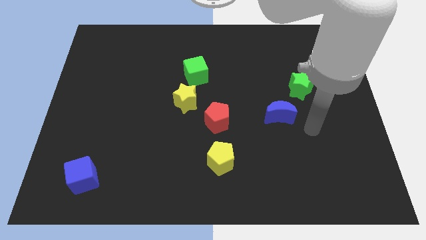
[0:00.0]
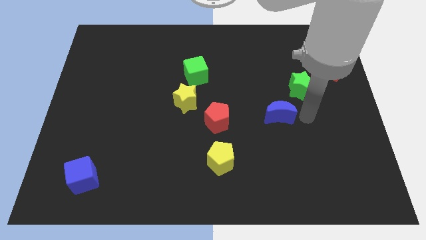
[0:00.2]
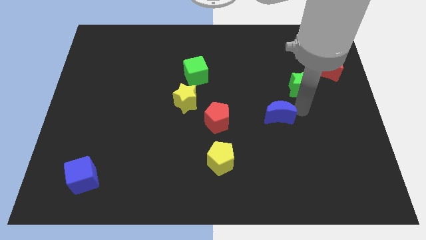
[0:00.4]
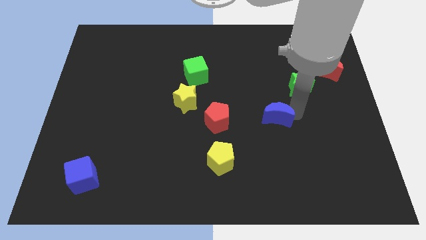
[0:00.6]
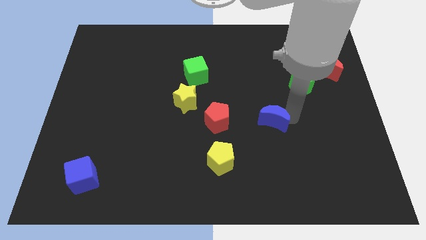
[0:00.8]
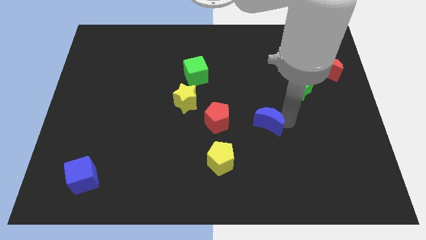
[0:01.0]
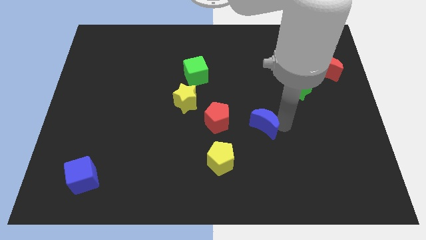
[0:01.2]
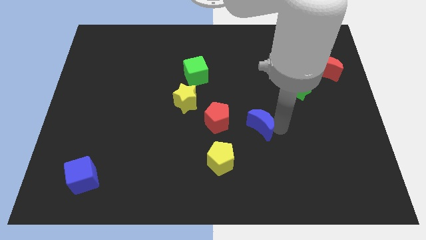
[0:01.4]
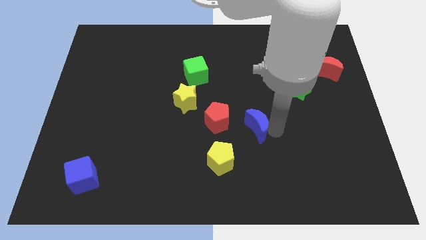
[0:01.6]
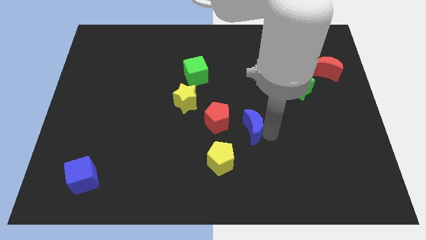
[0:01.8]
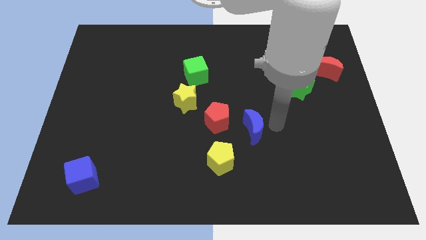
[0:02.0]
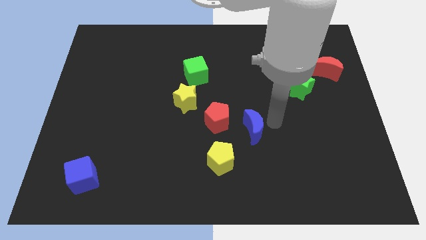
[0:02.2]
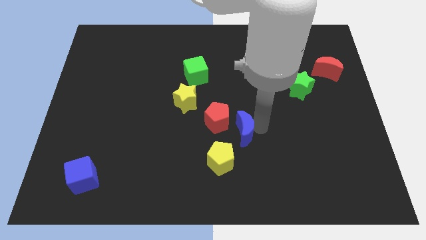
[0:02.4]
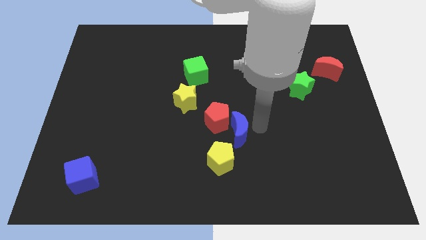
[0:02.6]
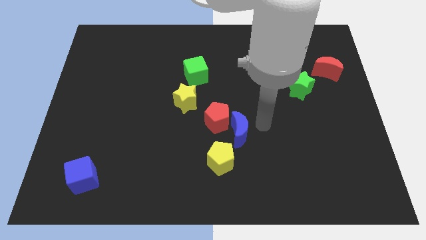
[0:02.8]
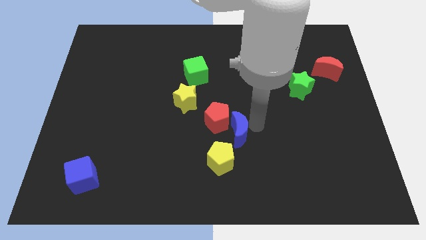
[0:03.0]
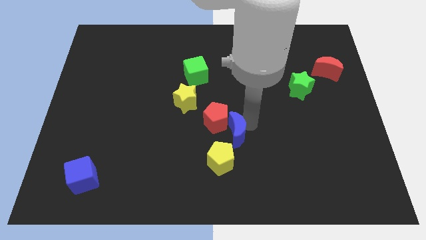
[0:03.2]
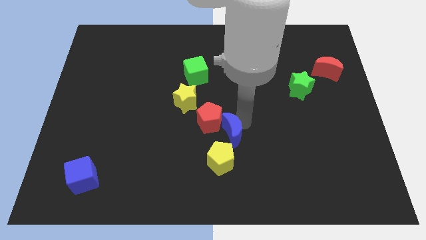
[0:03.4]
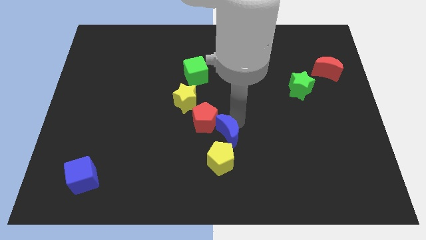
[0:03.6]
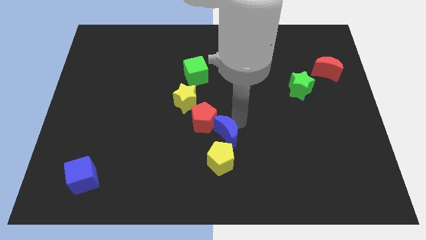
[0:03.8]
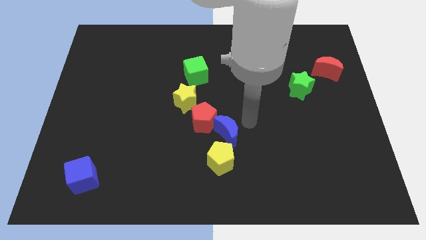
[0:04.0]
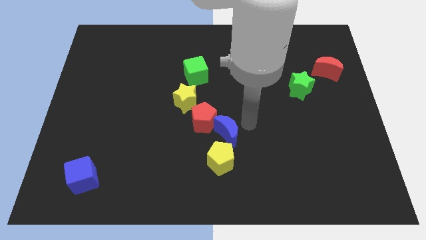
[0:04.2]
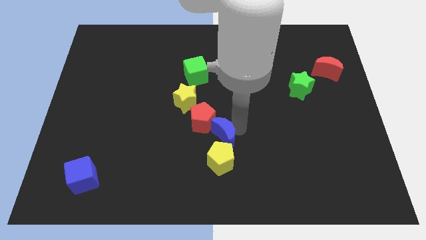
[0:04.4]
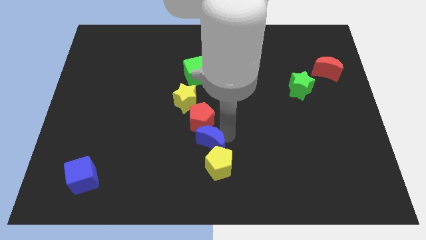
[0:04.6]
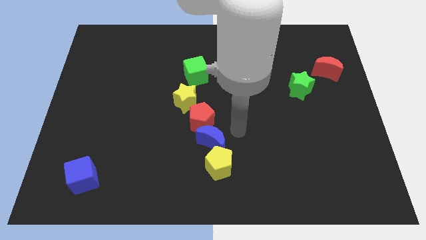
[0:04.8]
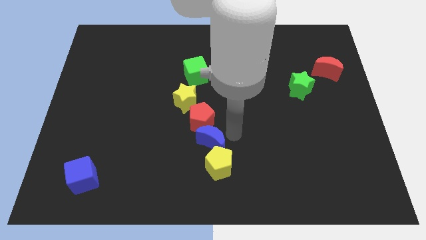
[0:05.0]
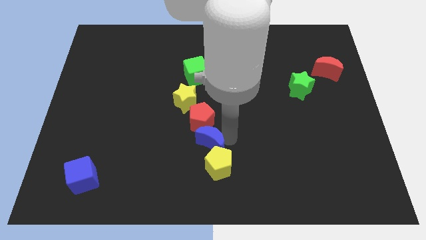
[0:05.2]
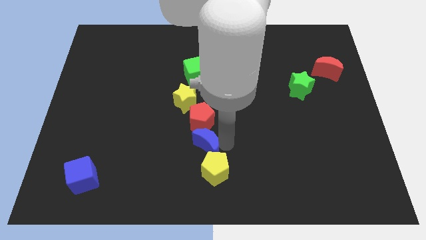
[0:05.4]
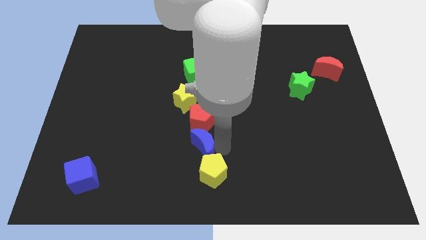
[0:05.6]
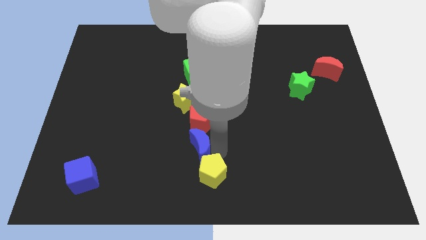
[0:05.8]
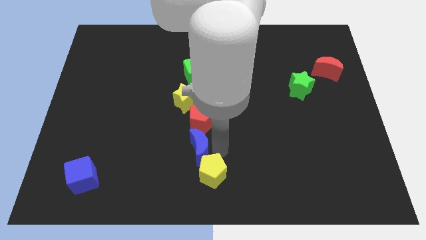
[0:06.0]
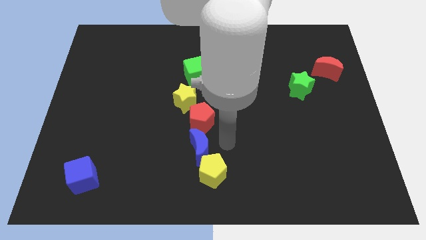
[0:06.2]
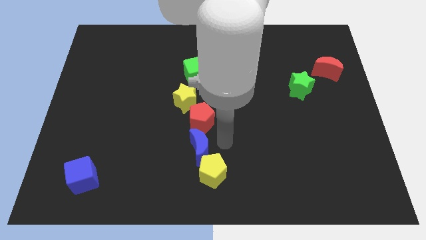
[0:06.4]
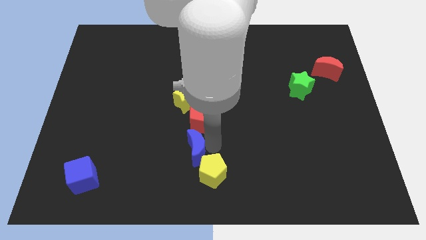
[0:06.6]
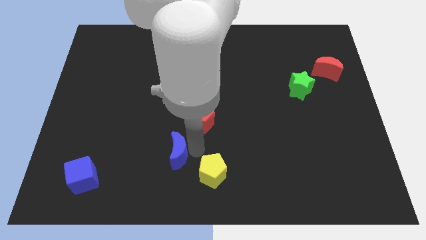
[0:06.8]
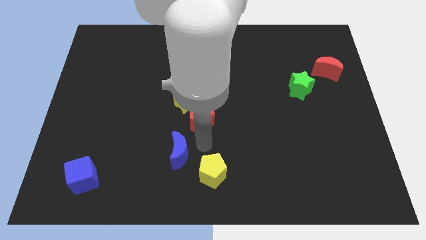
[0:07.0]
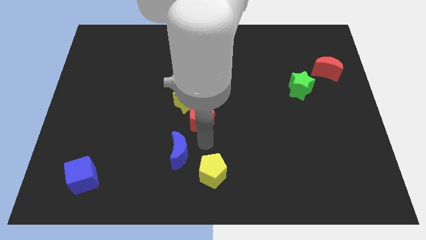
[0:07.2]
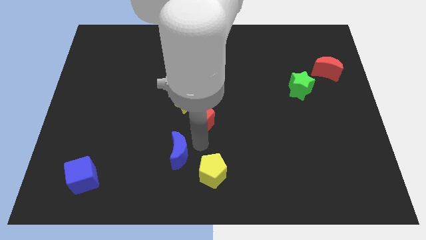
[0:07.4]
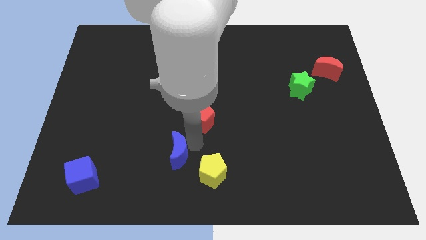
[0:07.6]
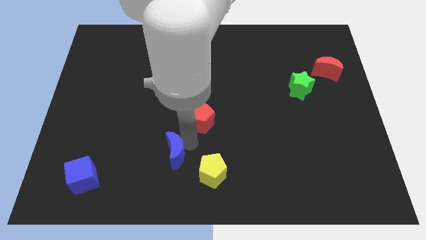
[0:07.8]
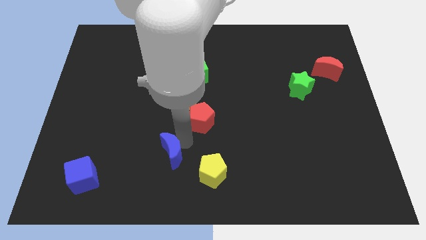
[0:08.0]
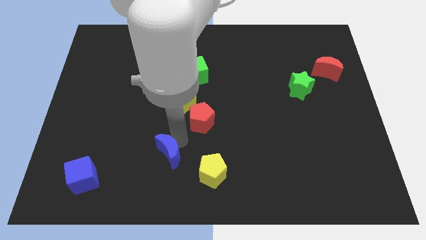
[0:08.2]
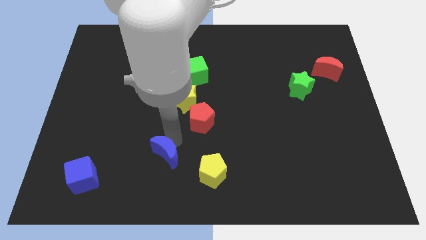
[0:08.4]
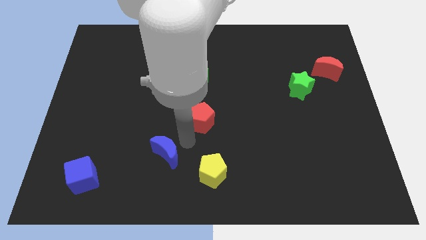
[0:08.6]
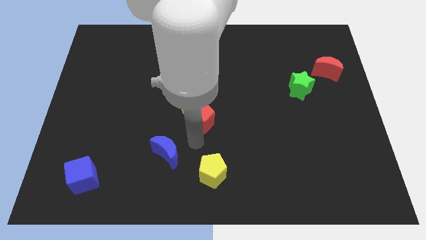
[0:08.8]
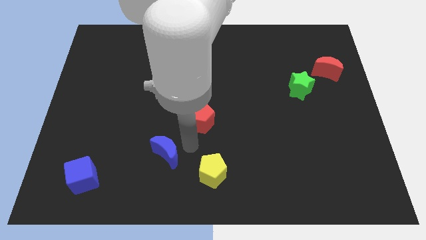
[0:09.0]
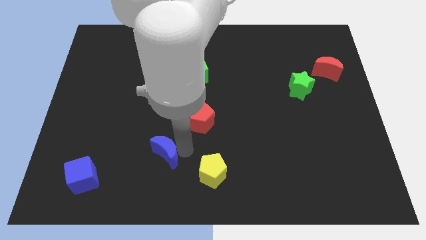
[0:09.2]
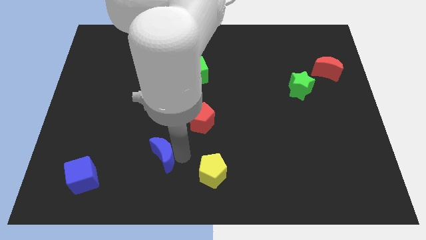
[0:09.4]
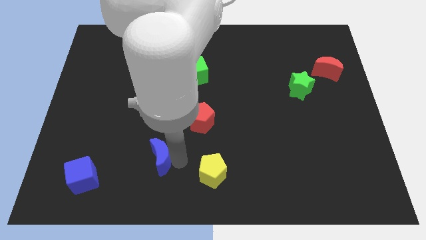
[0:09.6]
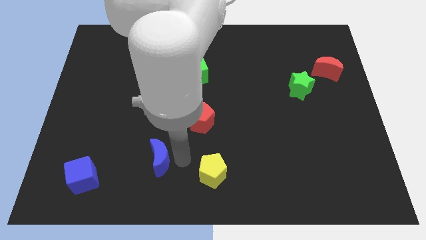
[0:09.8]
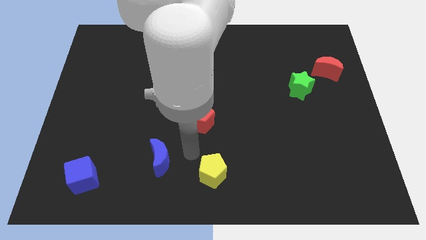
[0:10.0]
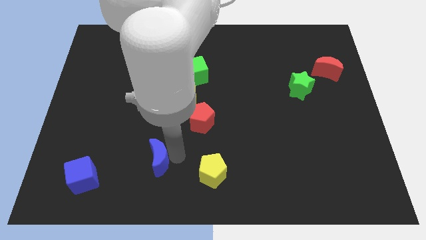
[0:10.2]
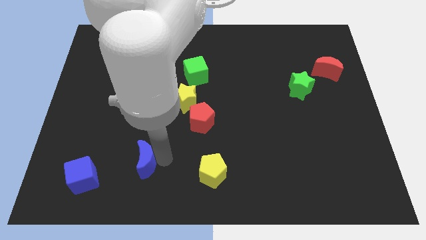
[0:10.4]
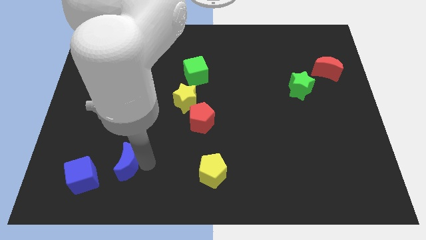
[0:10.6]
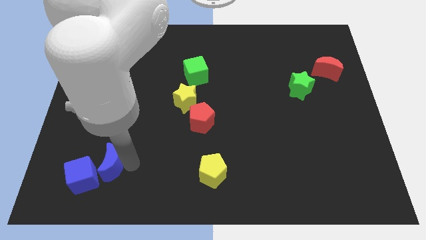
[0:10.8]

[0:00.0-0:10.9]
slide the blue moon close to the blue cube
